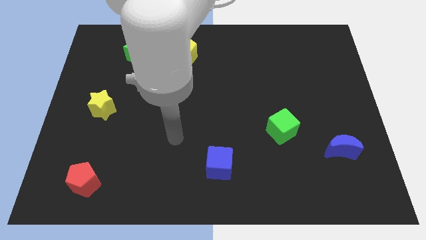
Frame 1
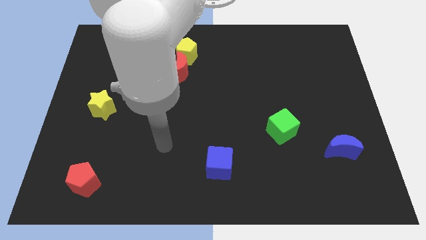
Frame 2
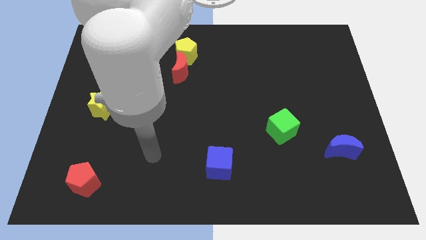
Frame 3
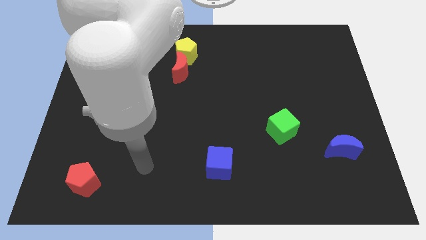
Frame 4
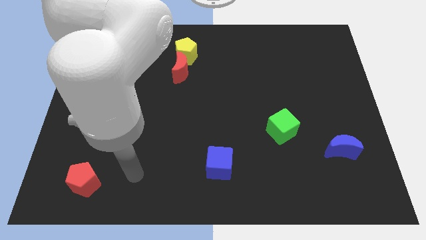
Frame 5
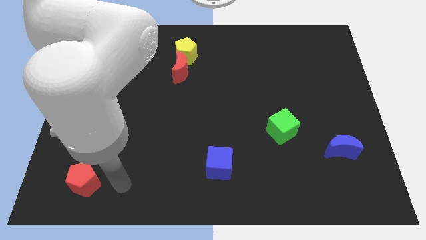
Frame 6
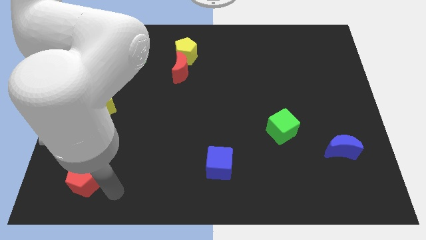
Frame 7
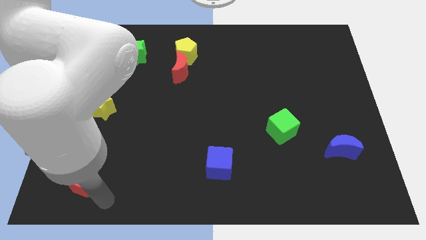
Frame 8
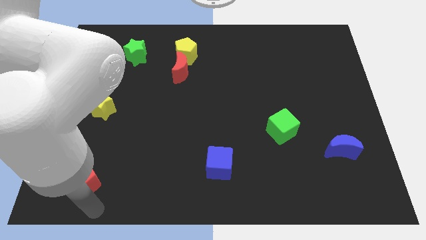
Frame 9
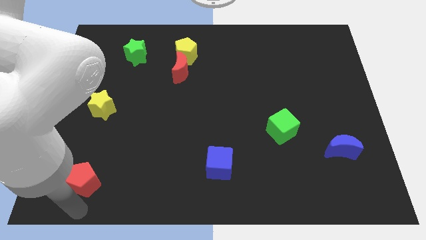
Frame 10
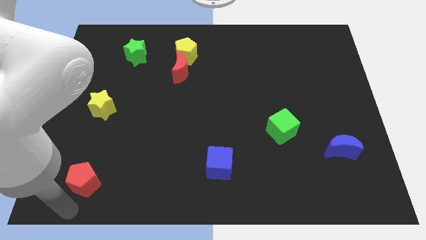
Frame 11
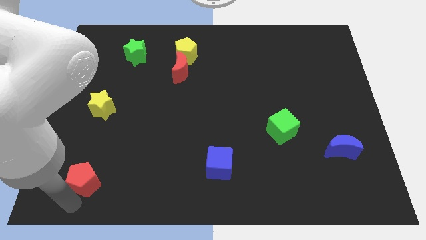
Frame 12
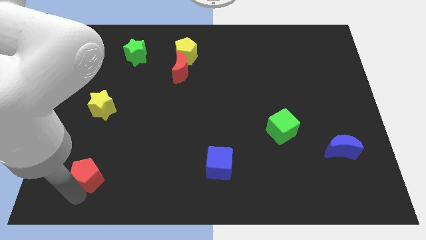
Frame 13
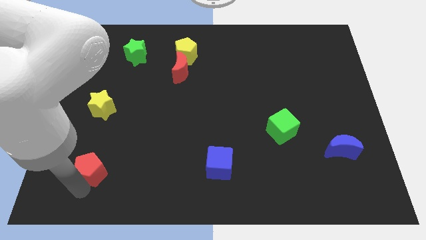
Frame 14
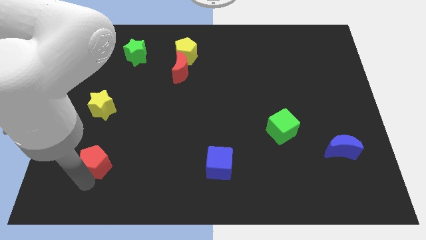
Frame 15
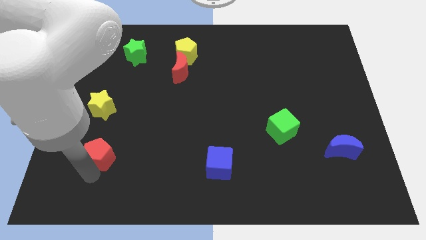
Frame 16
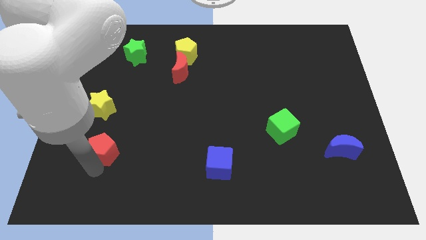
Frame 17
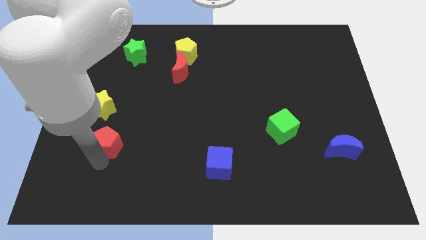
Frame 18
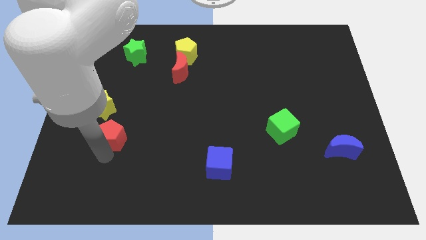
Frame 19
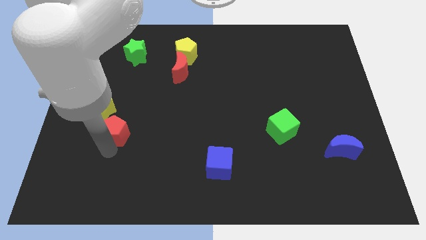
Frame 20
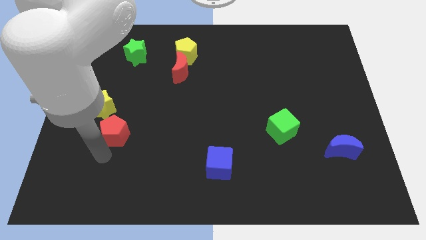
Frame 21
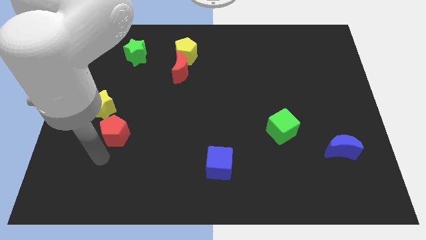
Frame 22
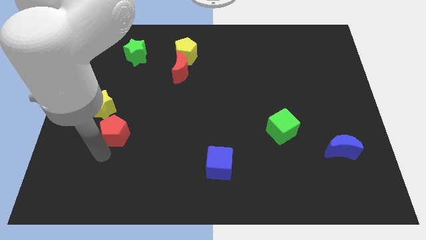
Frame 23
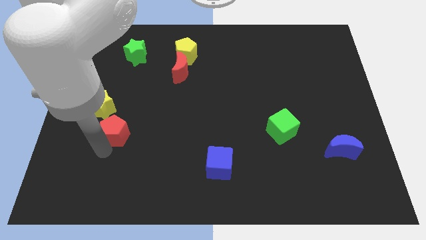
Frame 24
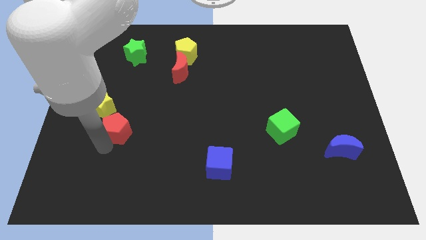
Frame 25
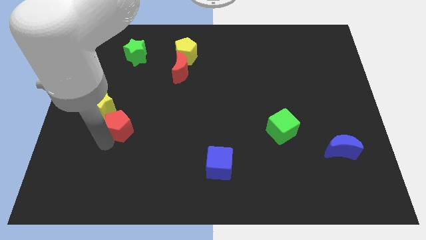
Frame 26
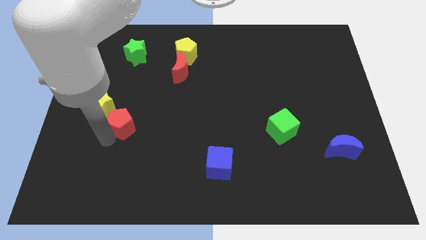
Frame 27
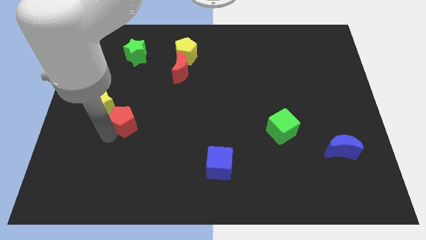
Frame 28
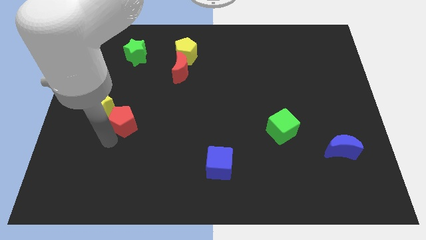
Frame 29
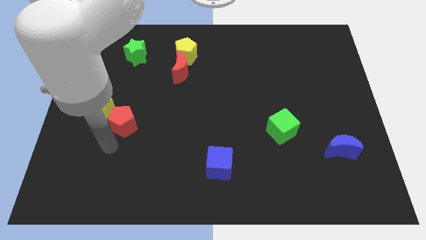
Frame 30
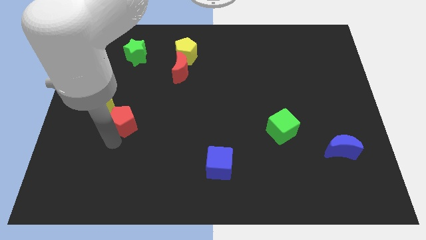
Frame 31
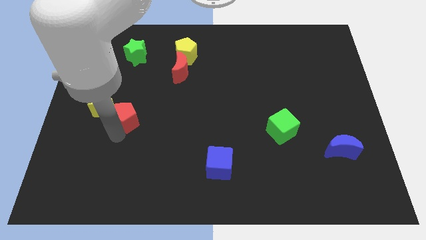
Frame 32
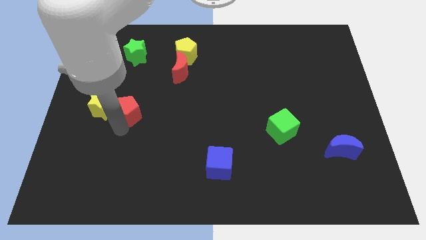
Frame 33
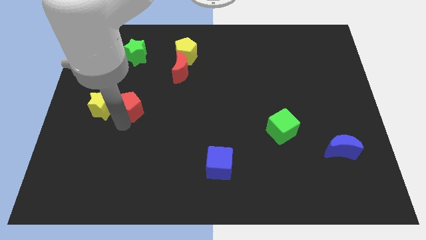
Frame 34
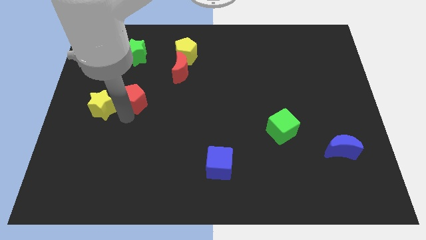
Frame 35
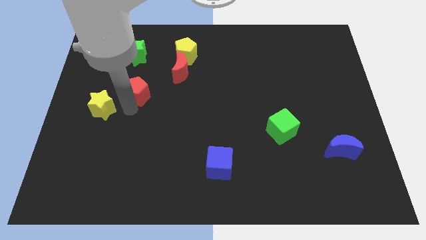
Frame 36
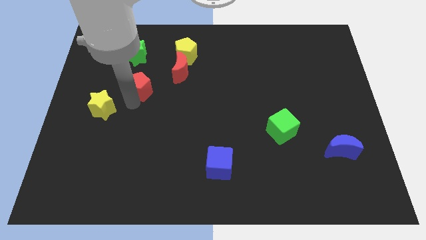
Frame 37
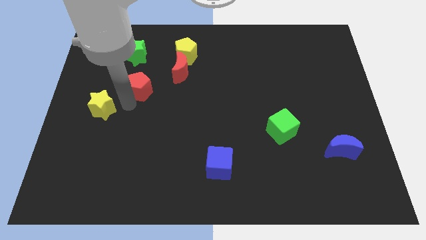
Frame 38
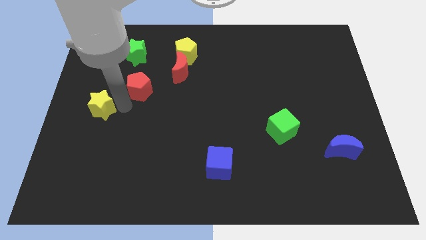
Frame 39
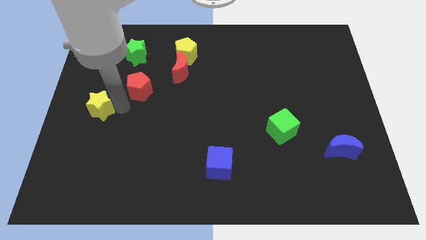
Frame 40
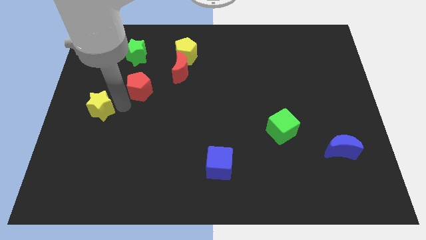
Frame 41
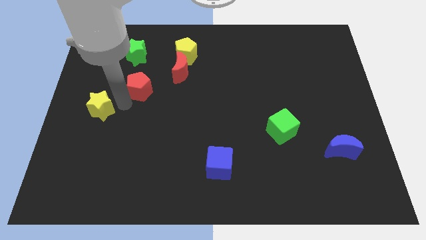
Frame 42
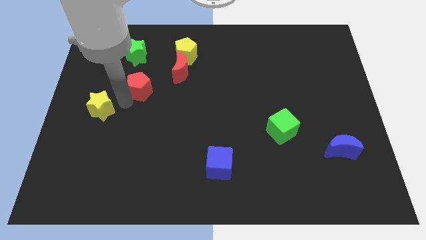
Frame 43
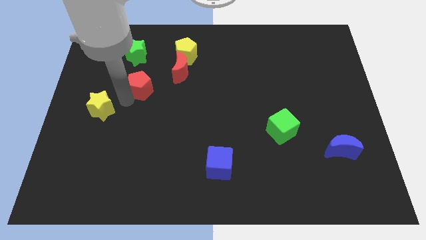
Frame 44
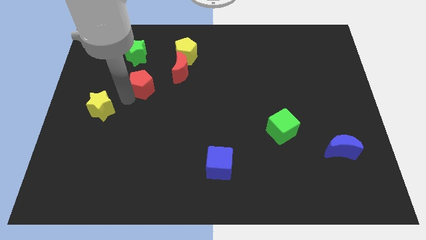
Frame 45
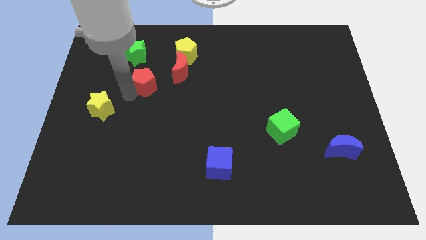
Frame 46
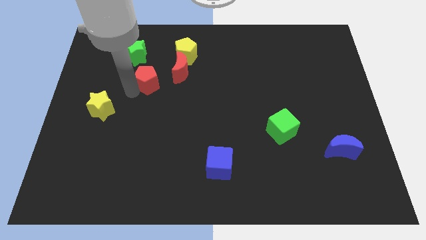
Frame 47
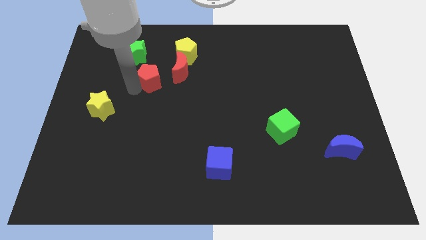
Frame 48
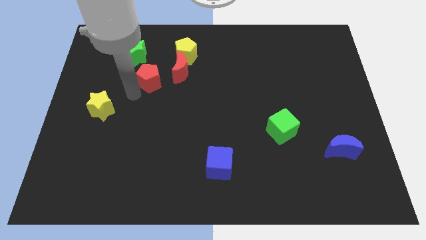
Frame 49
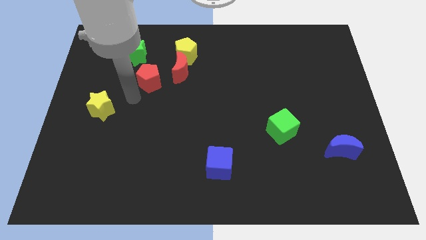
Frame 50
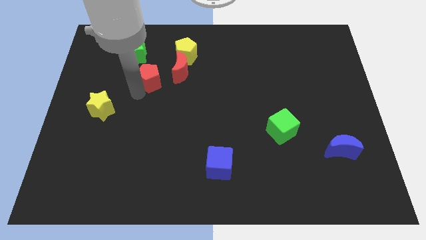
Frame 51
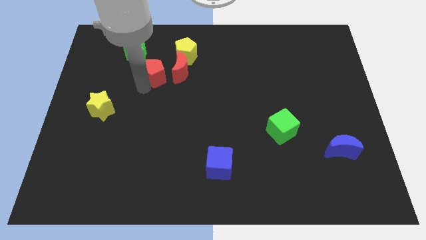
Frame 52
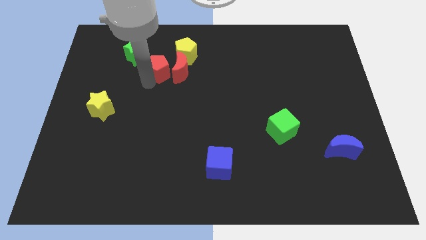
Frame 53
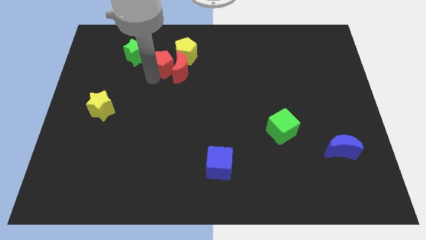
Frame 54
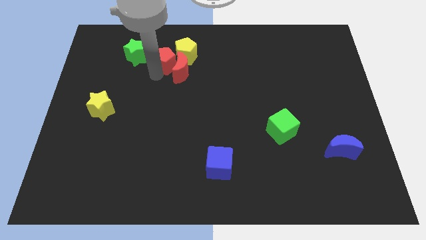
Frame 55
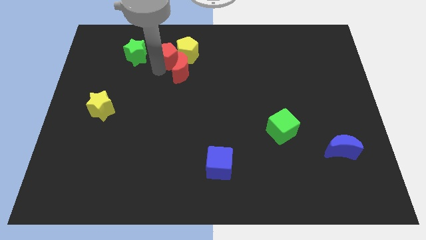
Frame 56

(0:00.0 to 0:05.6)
slide the red pentagon close to the yellow pentagon

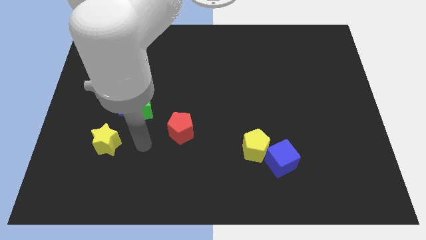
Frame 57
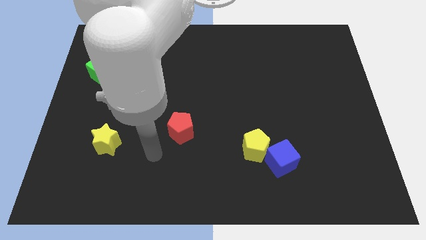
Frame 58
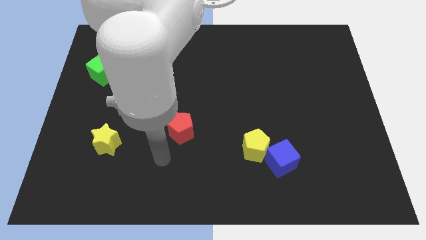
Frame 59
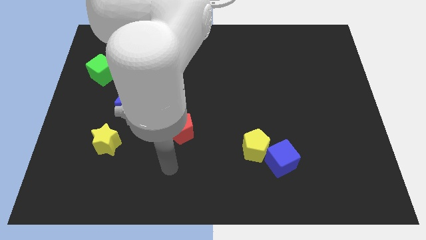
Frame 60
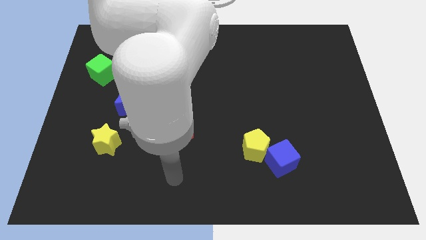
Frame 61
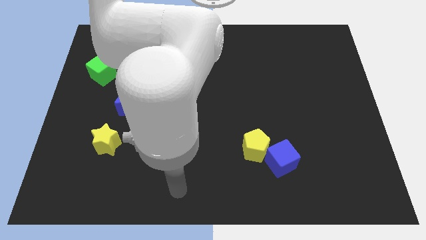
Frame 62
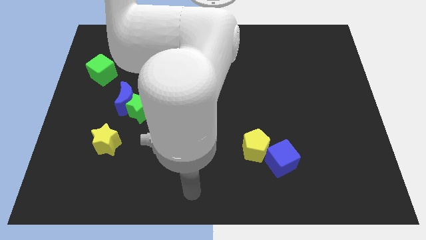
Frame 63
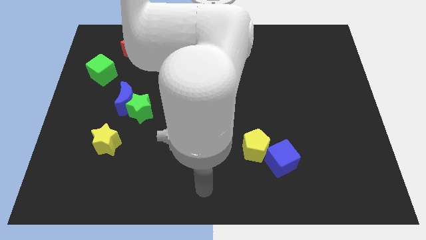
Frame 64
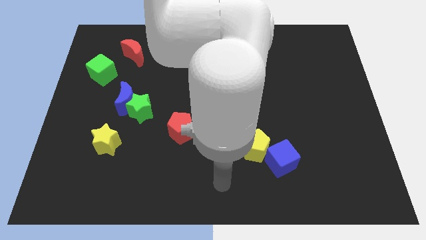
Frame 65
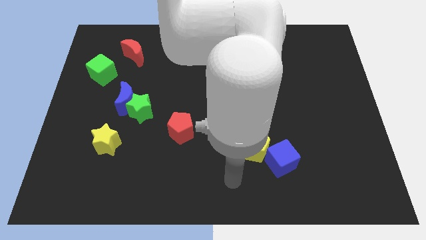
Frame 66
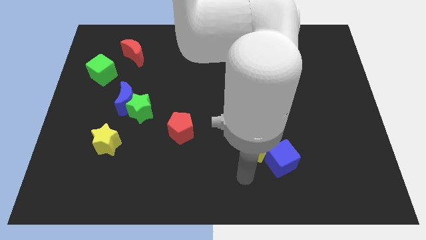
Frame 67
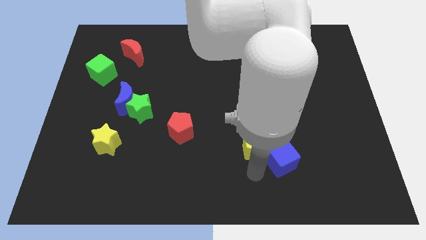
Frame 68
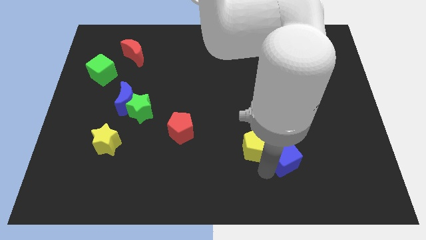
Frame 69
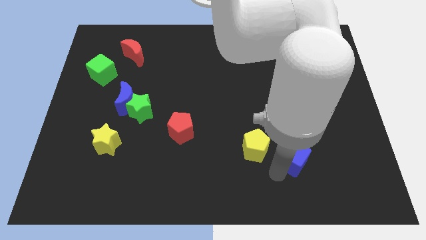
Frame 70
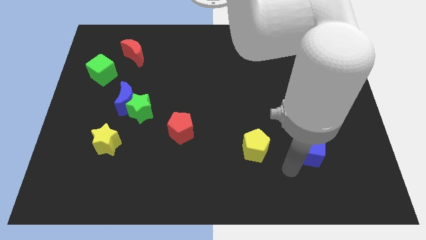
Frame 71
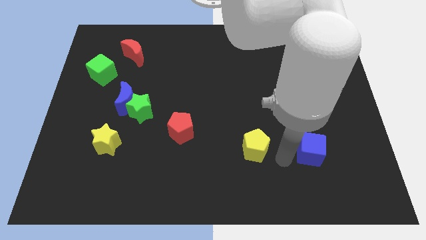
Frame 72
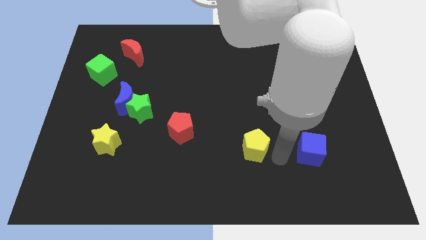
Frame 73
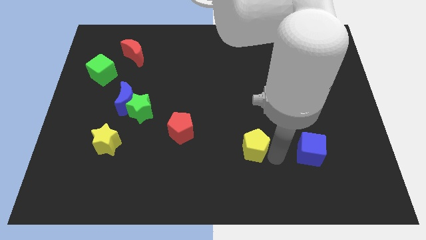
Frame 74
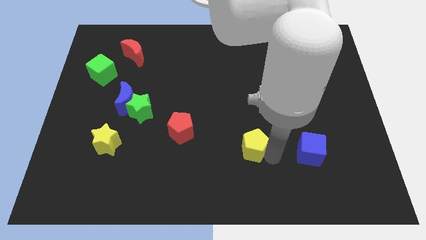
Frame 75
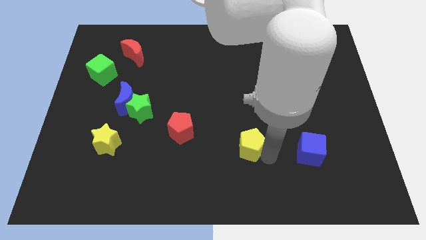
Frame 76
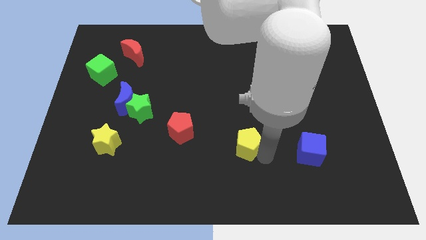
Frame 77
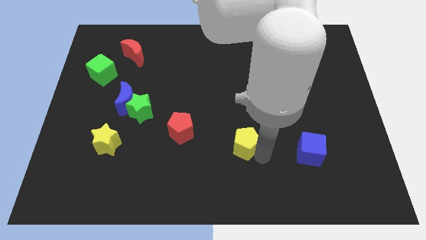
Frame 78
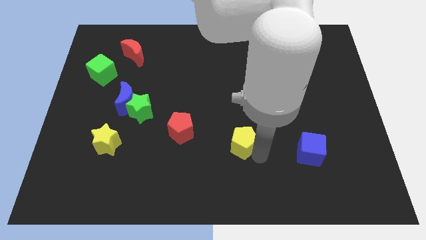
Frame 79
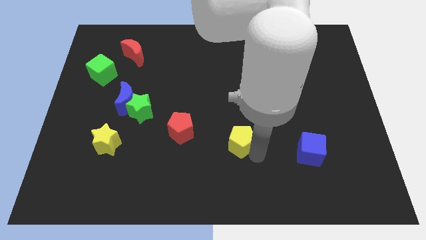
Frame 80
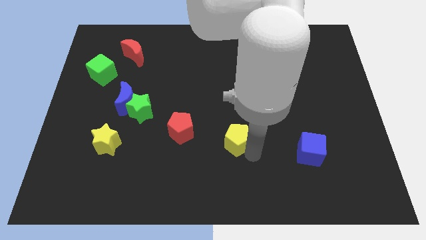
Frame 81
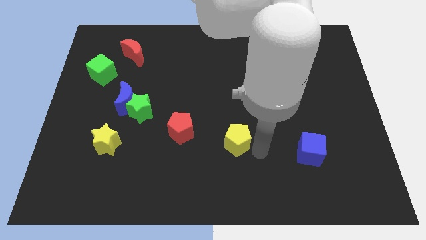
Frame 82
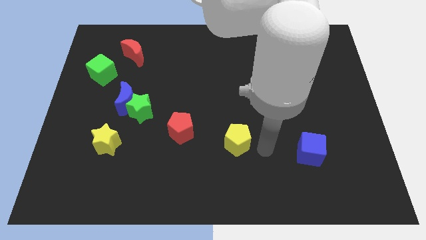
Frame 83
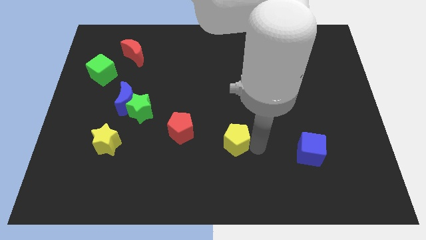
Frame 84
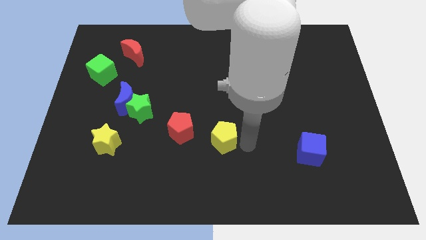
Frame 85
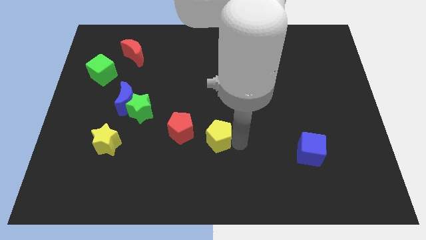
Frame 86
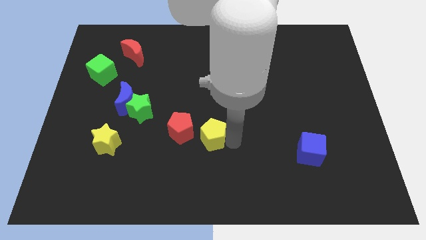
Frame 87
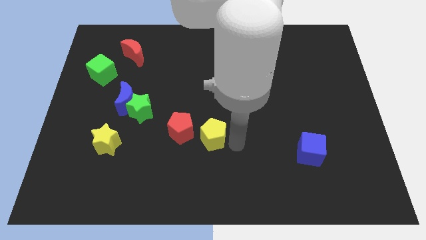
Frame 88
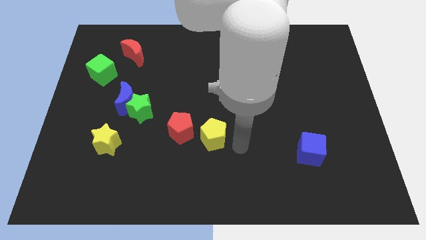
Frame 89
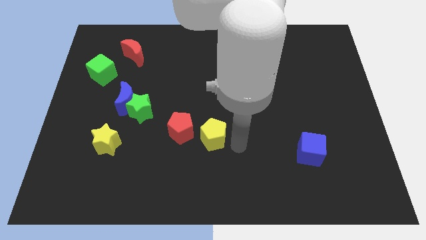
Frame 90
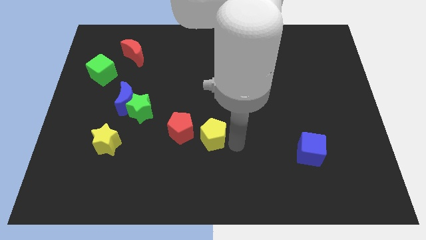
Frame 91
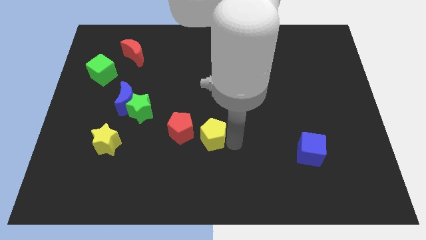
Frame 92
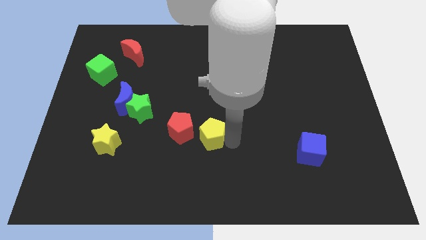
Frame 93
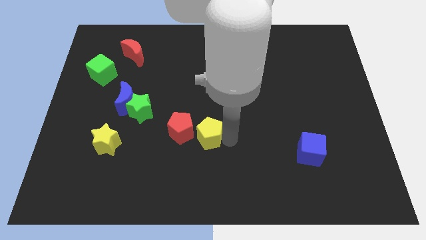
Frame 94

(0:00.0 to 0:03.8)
move the yellow pentagon next to the red pentagon
